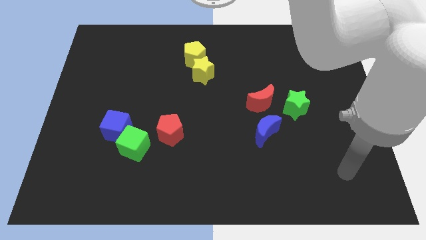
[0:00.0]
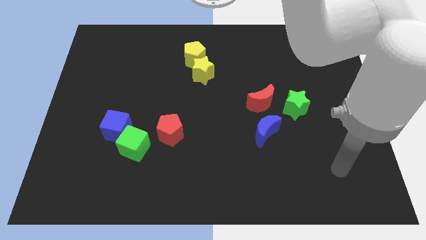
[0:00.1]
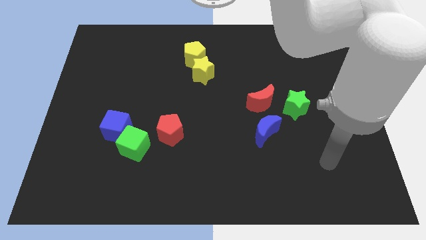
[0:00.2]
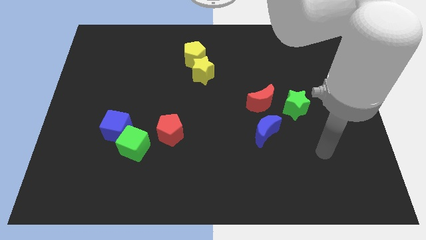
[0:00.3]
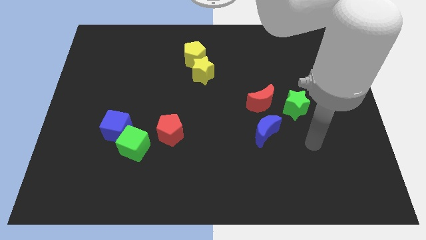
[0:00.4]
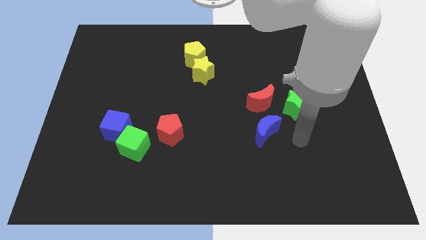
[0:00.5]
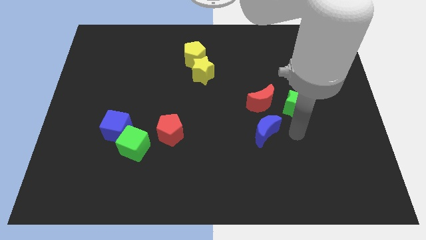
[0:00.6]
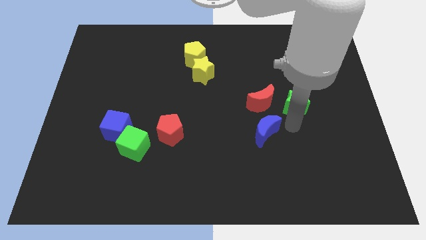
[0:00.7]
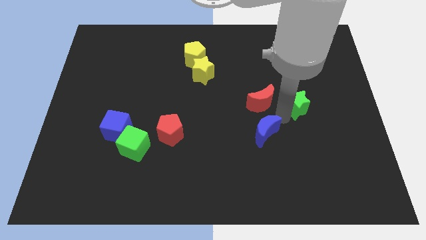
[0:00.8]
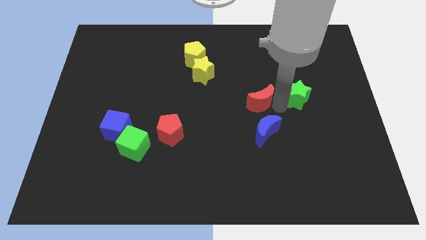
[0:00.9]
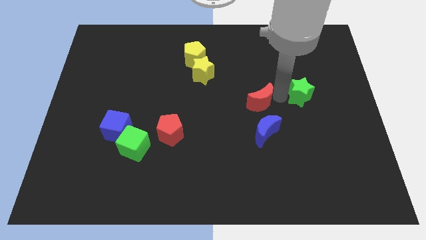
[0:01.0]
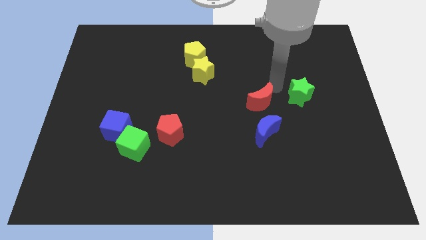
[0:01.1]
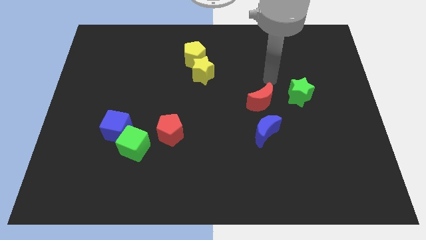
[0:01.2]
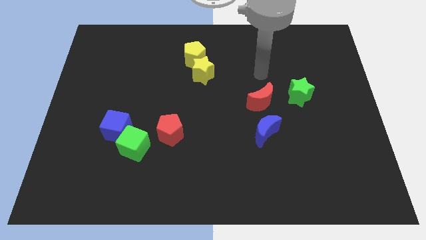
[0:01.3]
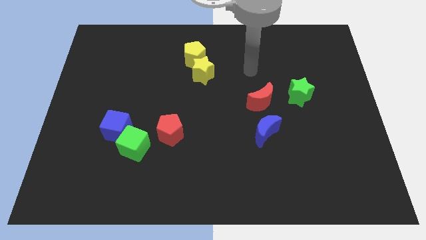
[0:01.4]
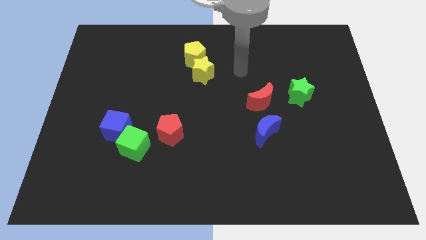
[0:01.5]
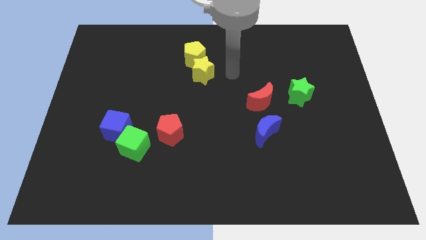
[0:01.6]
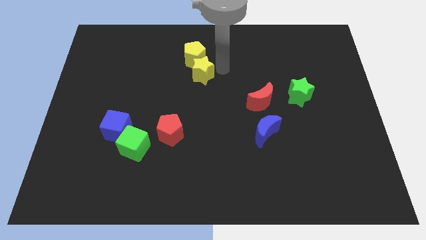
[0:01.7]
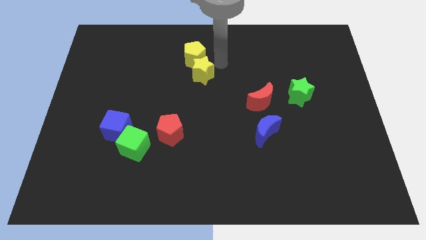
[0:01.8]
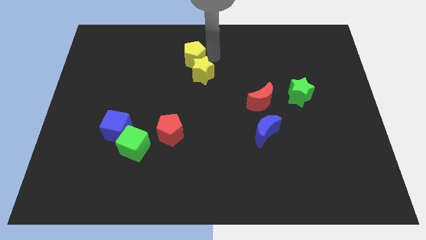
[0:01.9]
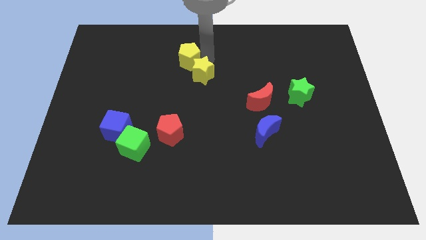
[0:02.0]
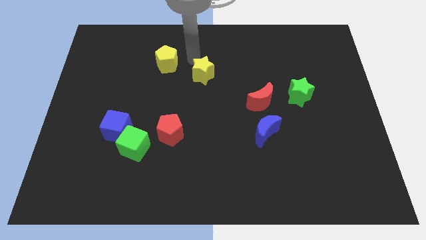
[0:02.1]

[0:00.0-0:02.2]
move the yellow star away from the yellow pentagon

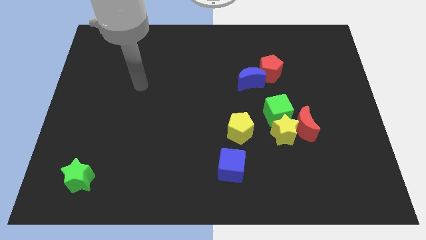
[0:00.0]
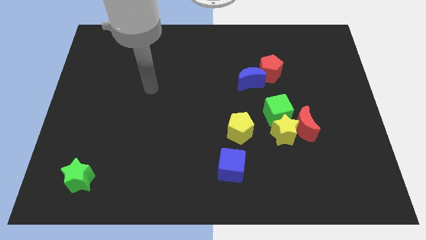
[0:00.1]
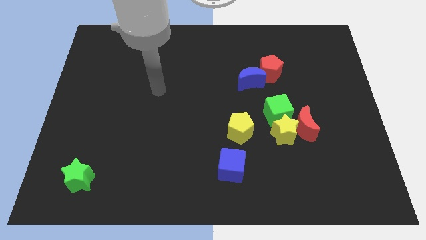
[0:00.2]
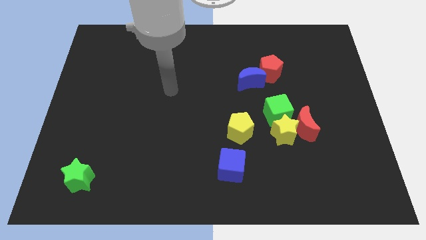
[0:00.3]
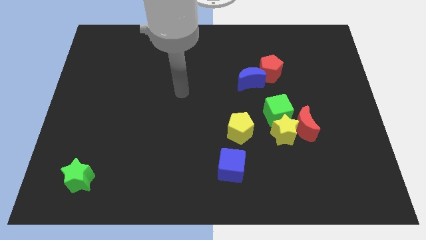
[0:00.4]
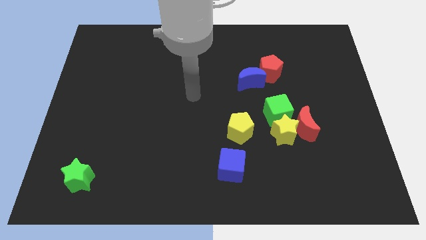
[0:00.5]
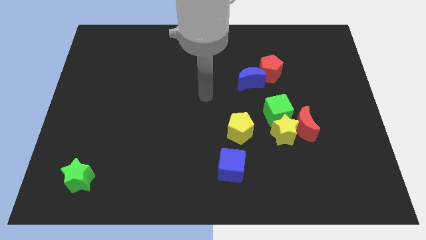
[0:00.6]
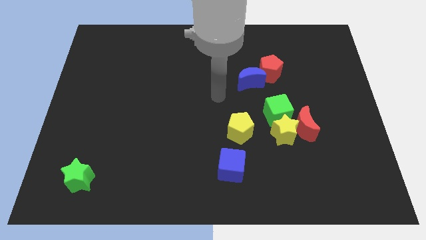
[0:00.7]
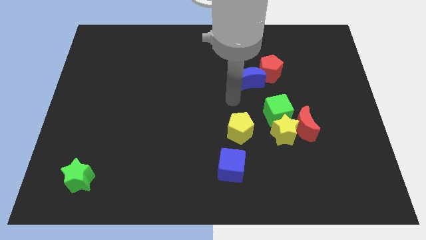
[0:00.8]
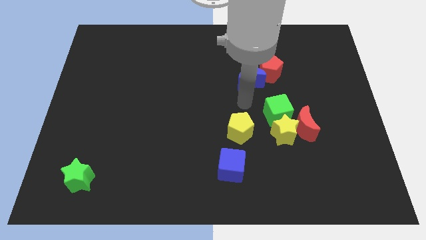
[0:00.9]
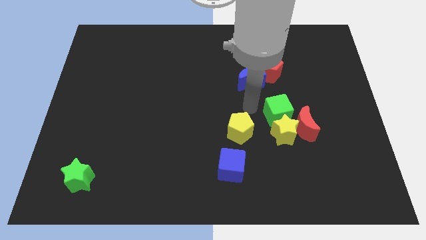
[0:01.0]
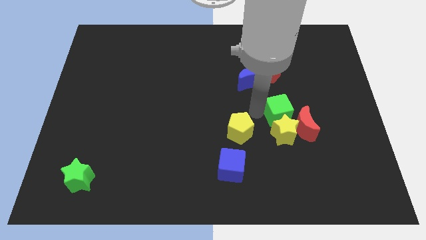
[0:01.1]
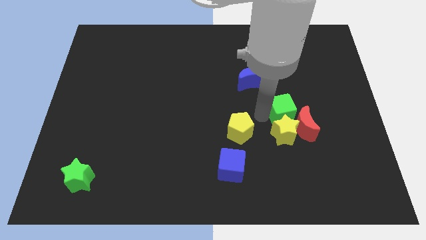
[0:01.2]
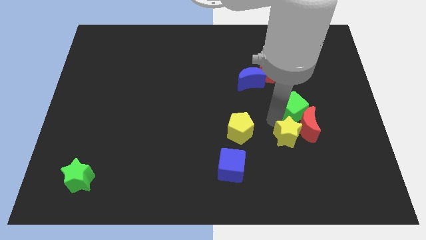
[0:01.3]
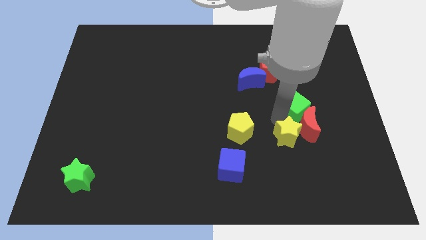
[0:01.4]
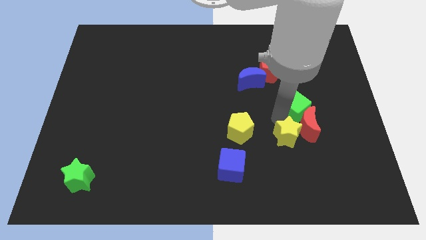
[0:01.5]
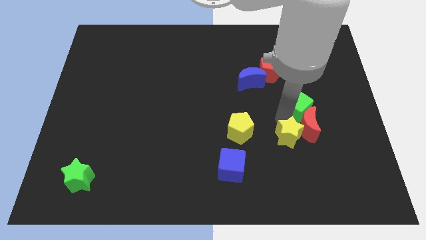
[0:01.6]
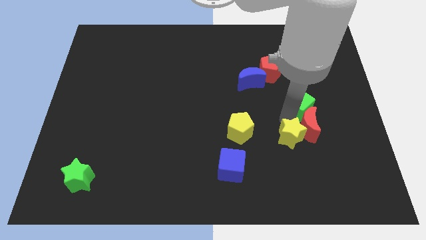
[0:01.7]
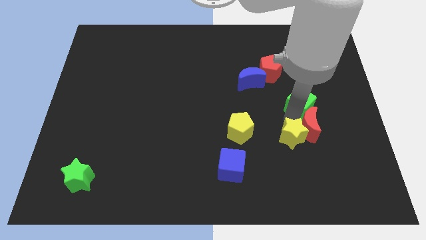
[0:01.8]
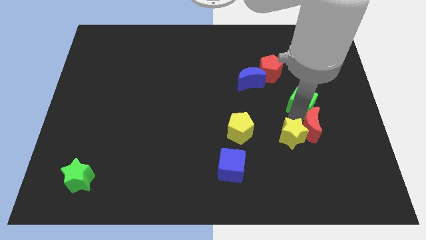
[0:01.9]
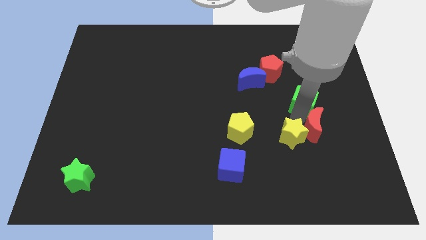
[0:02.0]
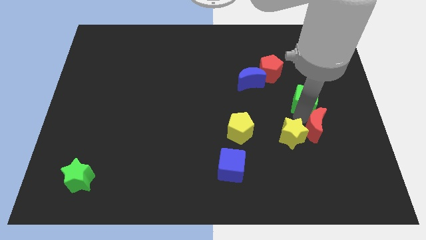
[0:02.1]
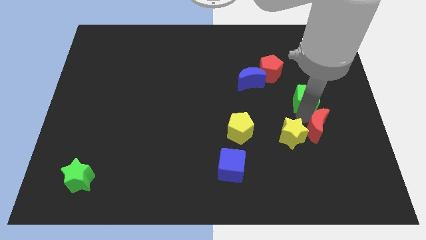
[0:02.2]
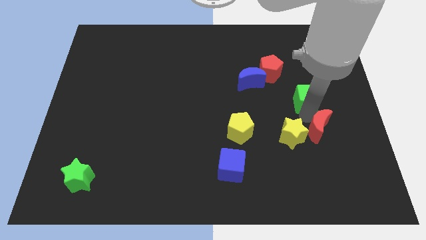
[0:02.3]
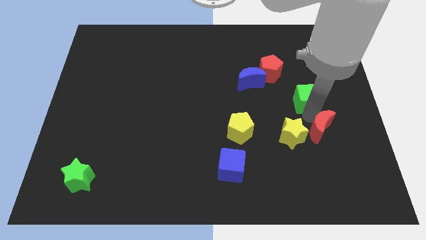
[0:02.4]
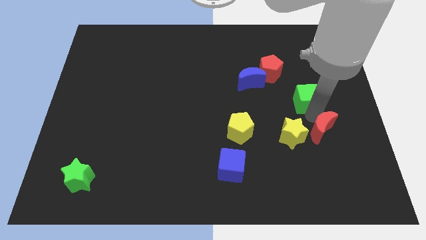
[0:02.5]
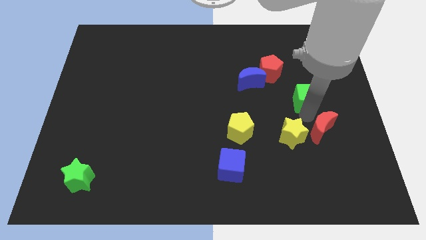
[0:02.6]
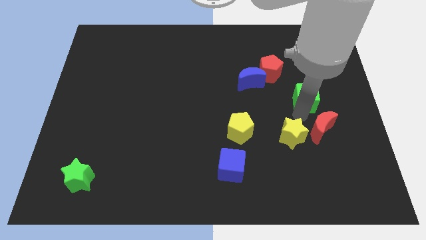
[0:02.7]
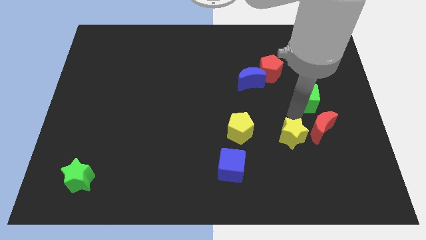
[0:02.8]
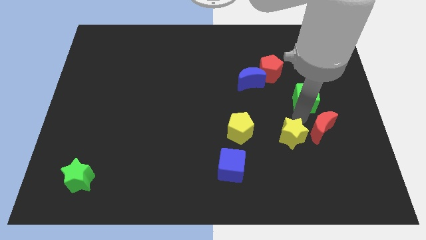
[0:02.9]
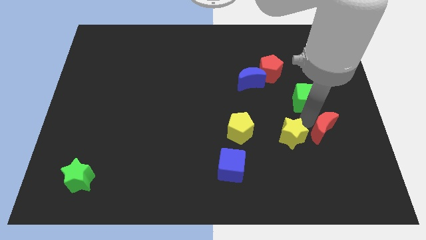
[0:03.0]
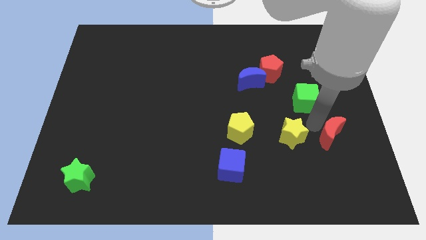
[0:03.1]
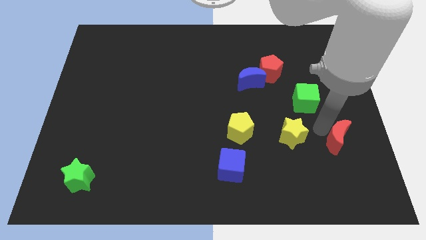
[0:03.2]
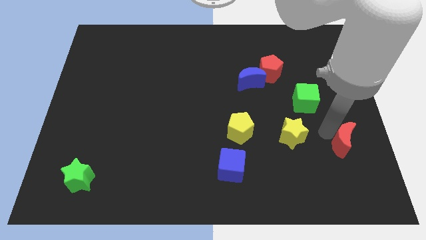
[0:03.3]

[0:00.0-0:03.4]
separate the red moon from the yellow star and green cube

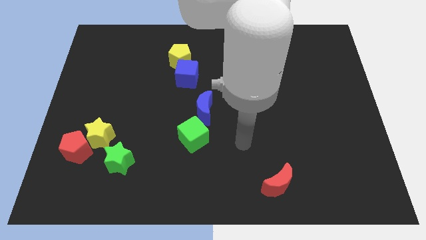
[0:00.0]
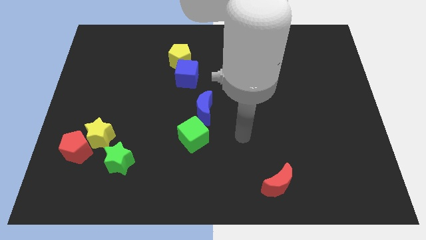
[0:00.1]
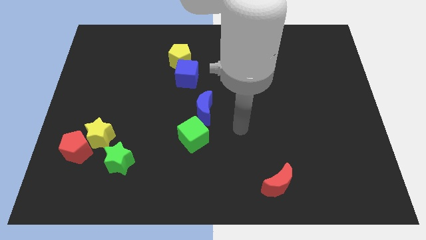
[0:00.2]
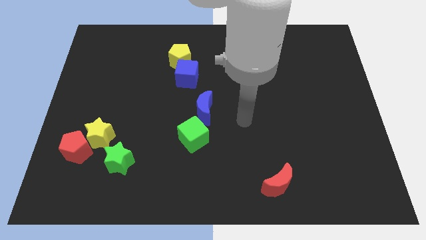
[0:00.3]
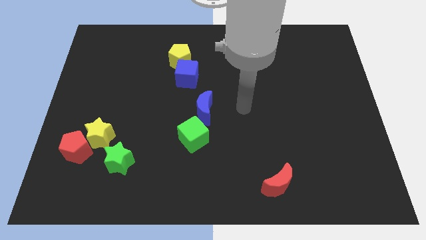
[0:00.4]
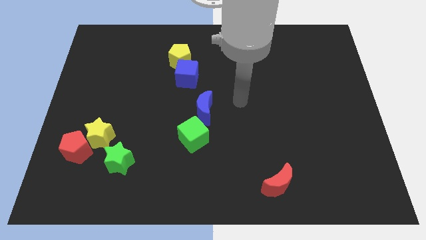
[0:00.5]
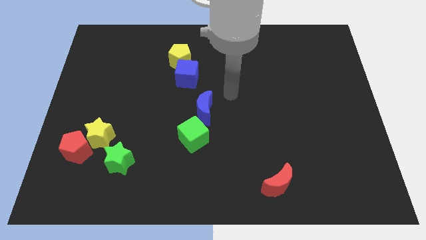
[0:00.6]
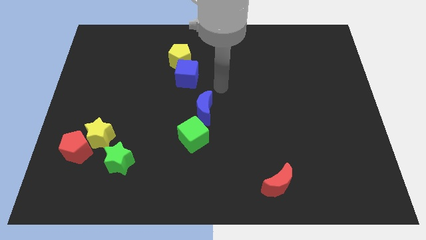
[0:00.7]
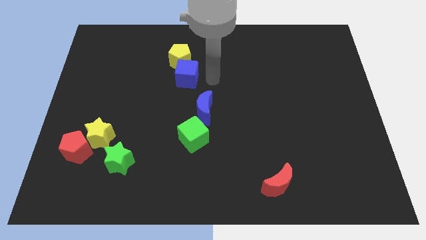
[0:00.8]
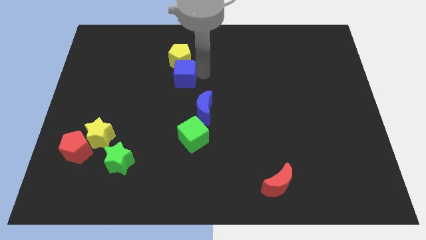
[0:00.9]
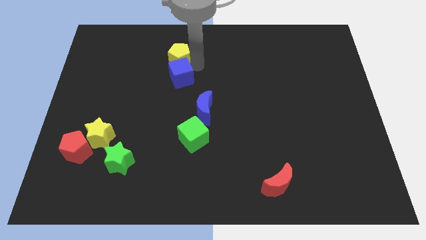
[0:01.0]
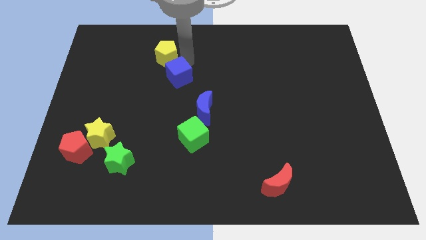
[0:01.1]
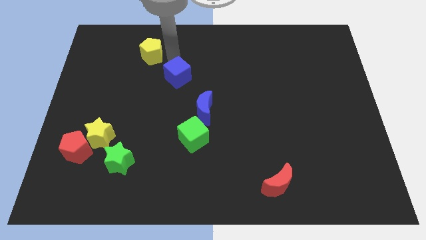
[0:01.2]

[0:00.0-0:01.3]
separate the blue cube from the yellow pentagon

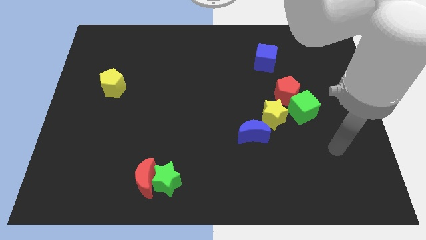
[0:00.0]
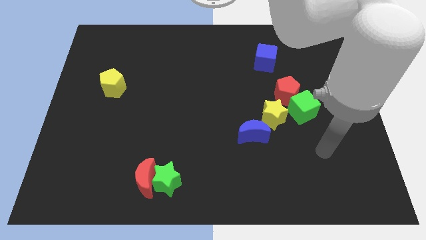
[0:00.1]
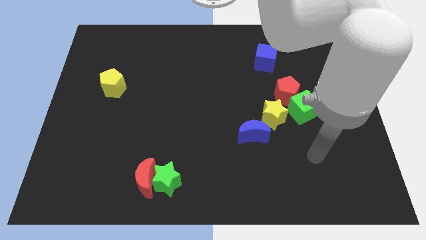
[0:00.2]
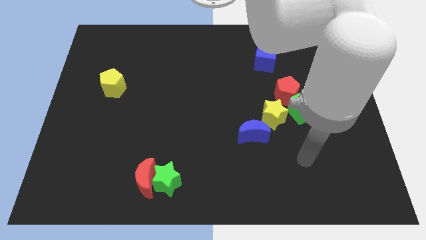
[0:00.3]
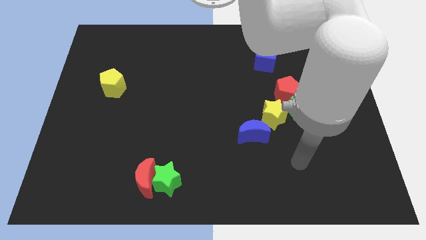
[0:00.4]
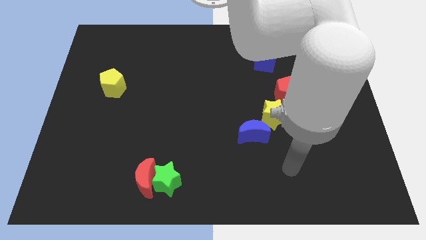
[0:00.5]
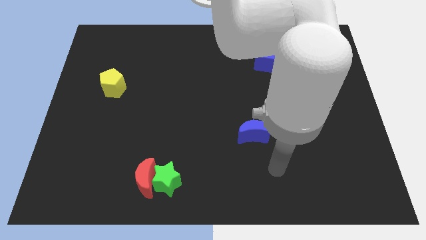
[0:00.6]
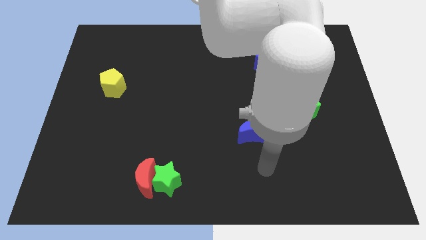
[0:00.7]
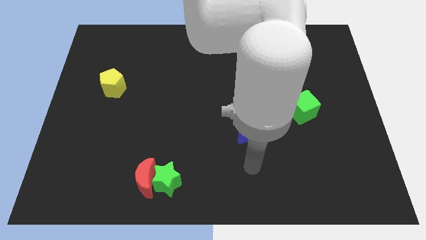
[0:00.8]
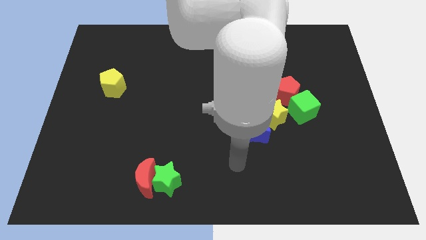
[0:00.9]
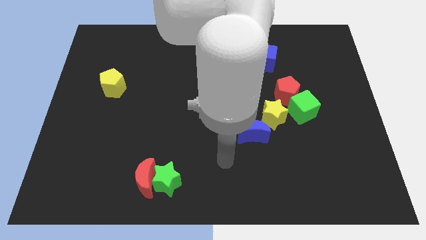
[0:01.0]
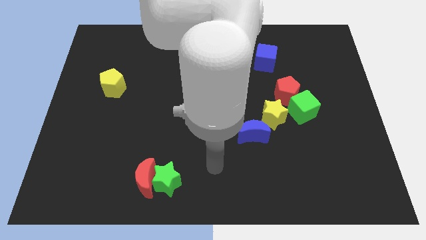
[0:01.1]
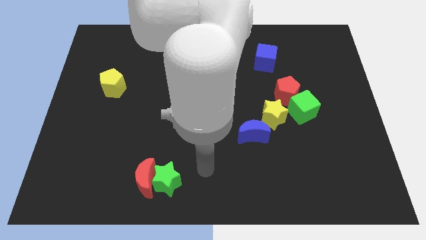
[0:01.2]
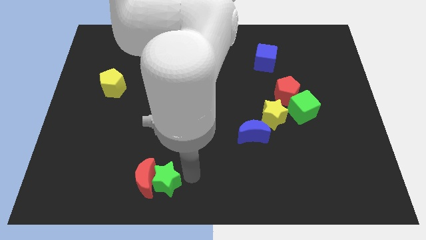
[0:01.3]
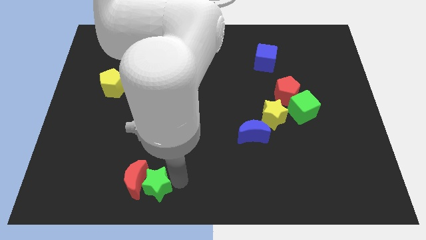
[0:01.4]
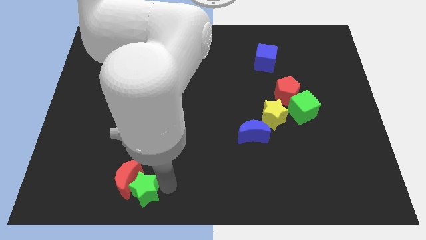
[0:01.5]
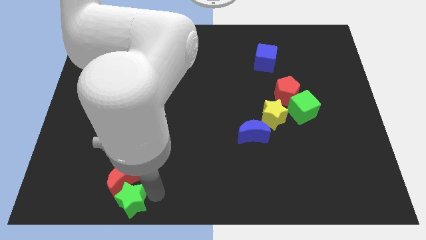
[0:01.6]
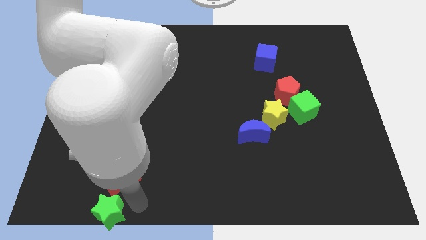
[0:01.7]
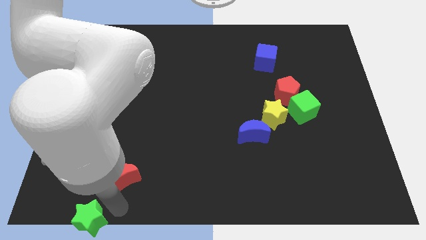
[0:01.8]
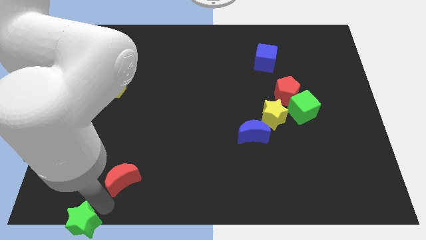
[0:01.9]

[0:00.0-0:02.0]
move the red moon away from the green star

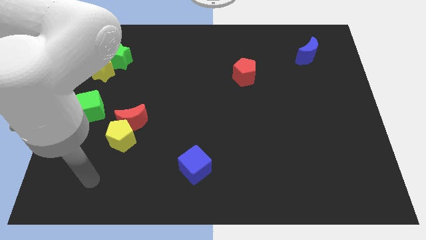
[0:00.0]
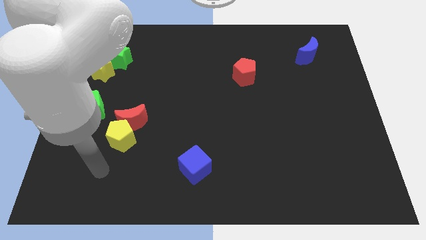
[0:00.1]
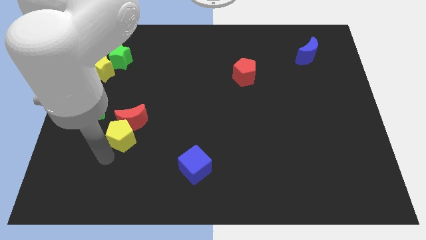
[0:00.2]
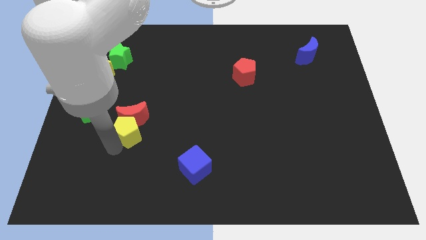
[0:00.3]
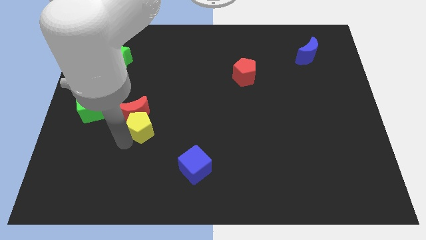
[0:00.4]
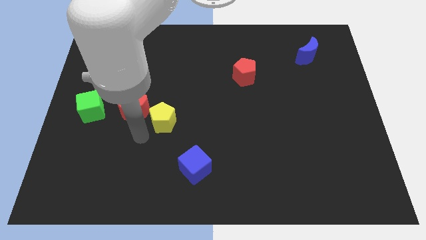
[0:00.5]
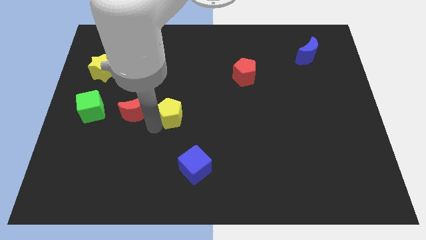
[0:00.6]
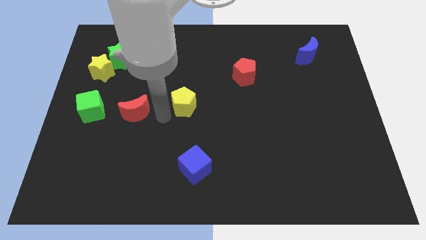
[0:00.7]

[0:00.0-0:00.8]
move the red moon away from the yellow pentagon
